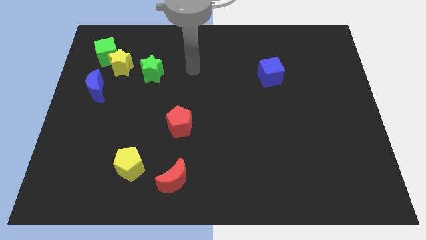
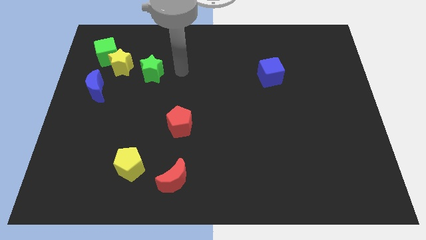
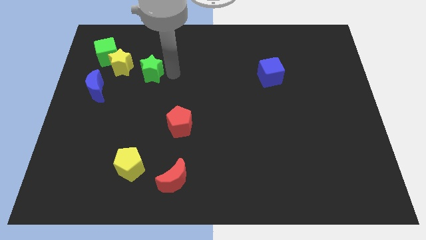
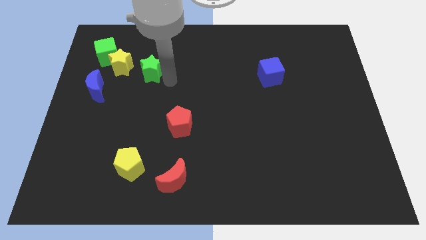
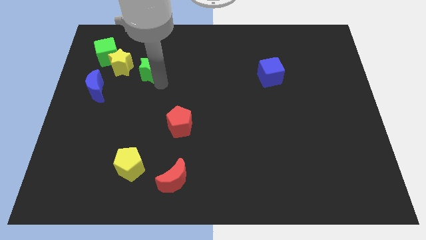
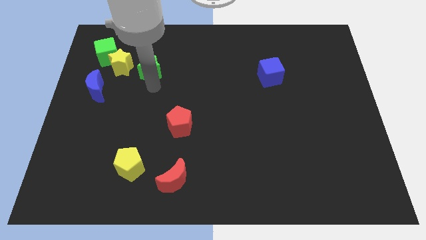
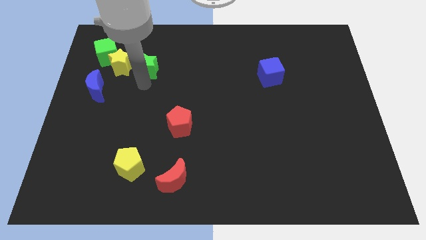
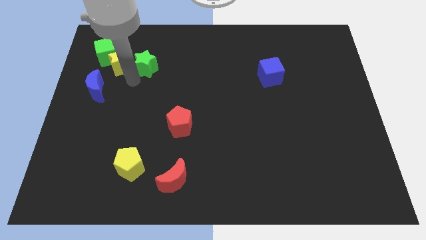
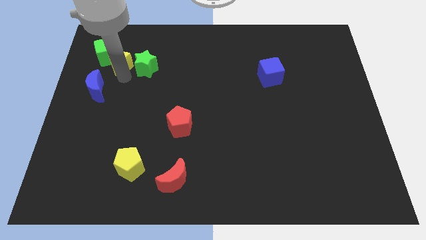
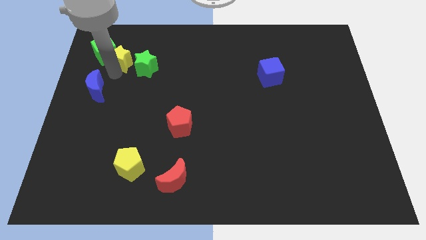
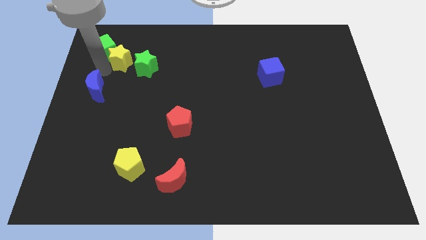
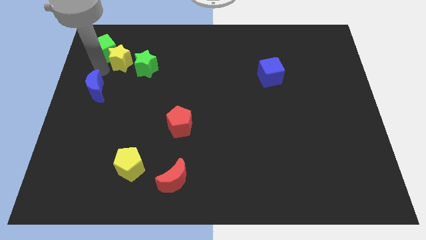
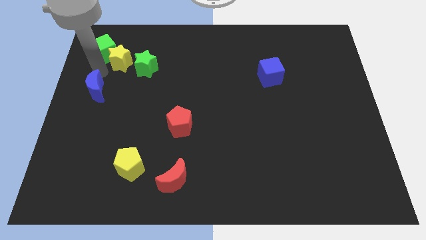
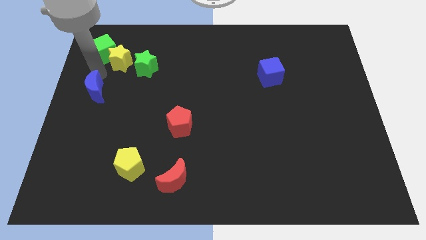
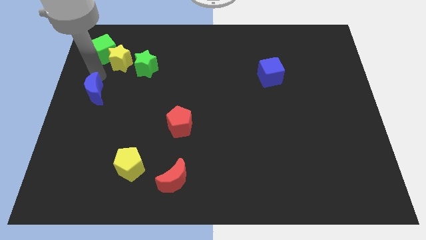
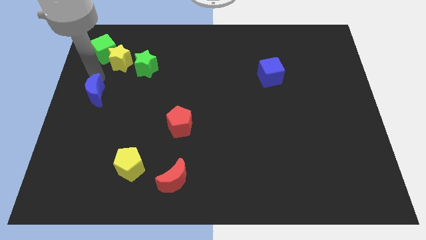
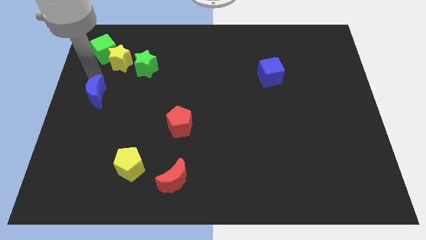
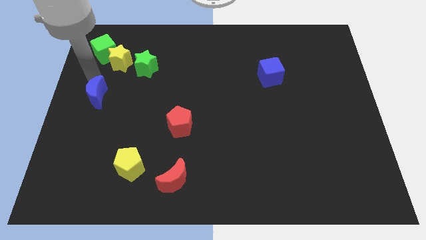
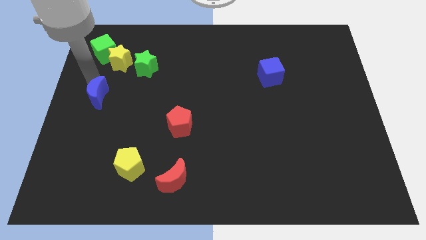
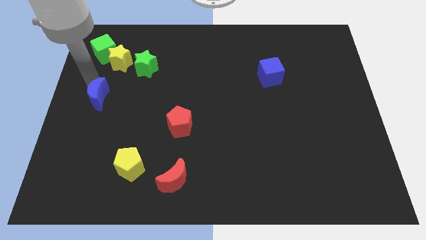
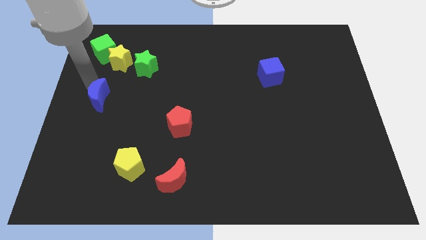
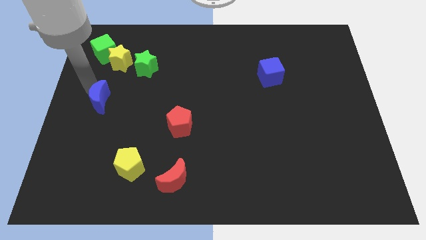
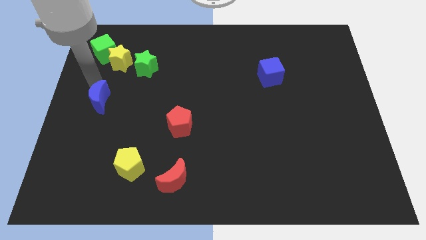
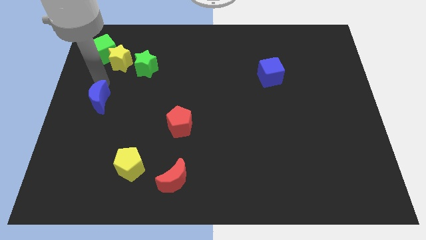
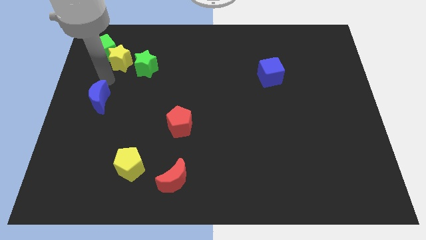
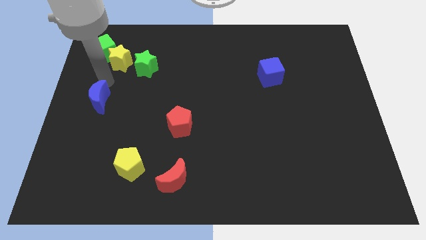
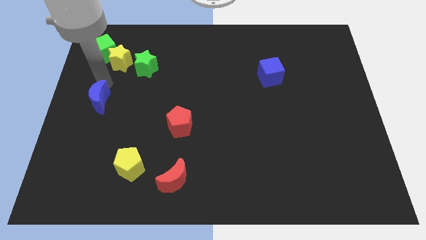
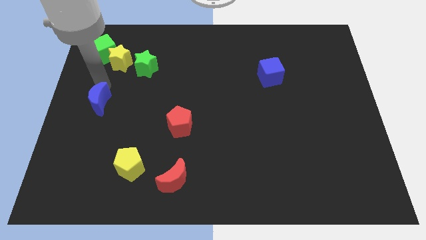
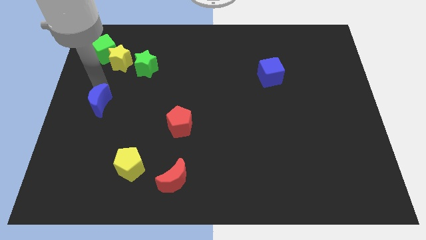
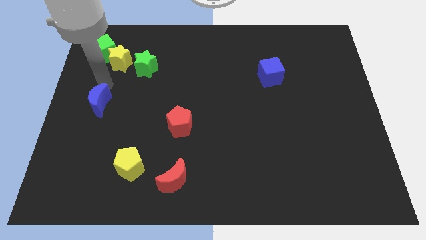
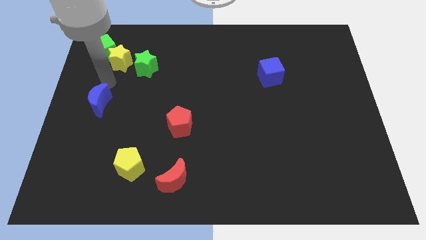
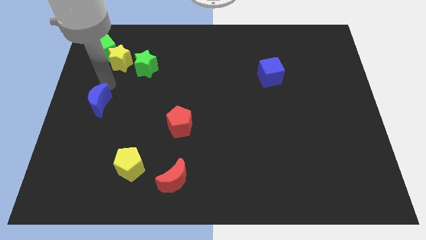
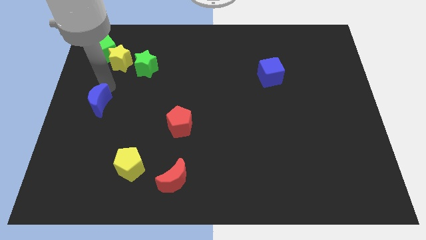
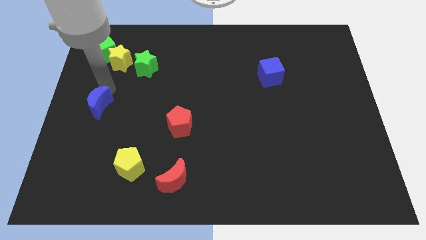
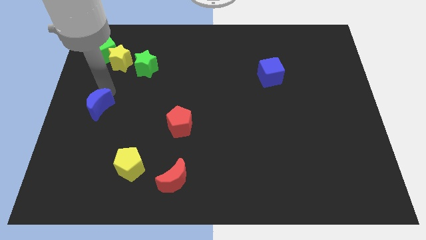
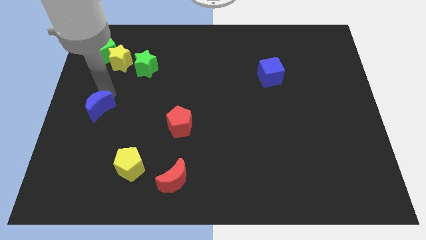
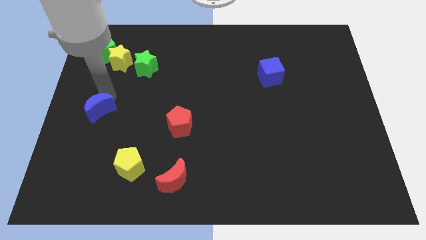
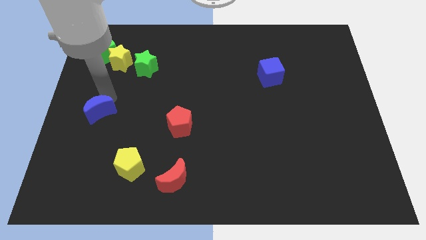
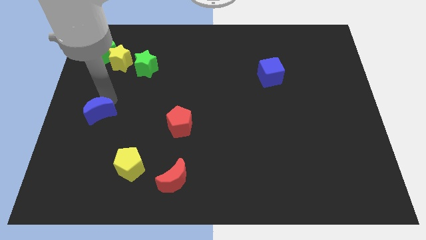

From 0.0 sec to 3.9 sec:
slightly push the blue moon down

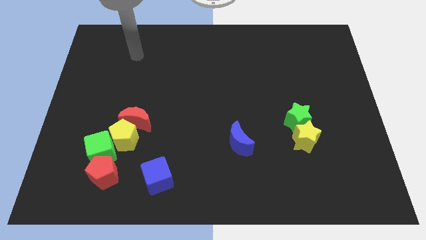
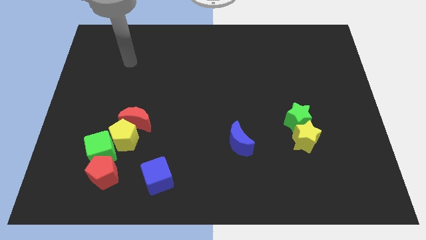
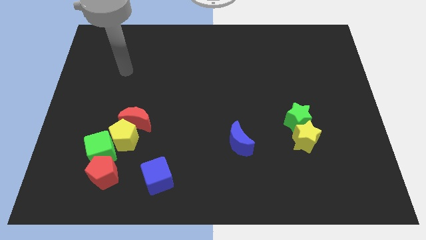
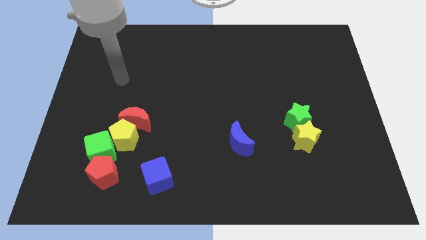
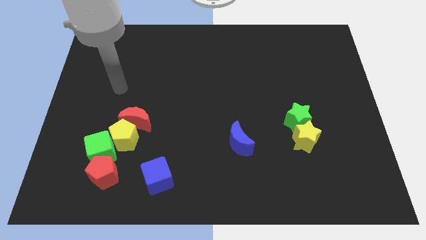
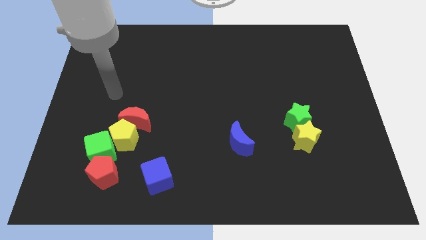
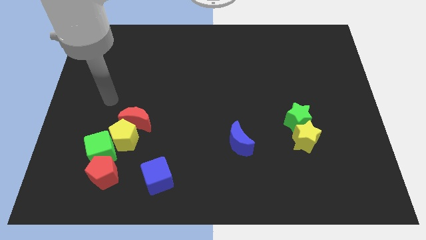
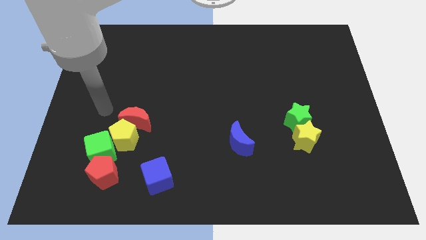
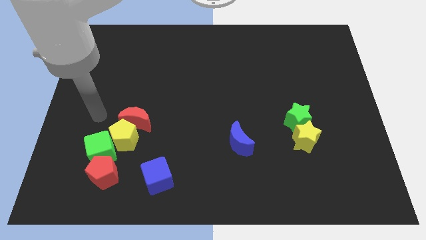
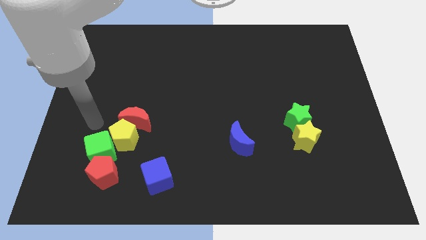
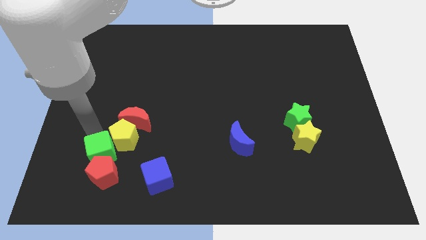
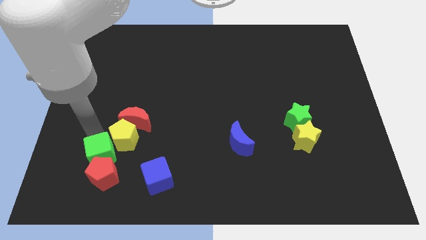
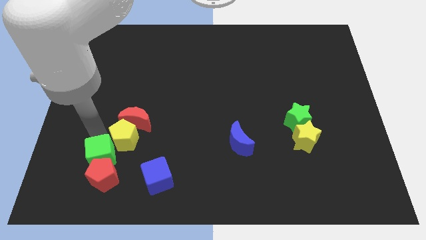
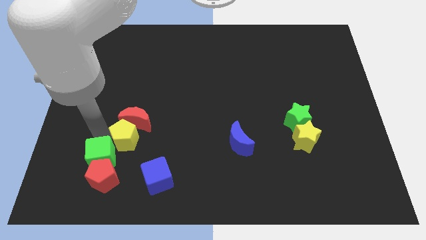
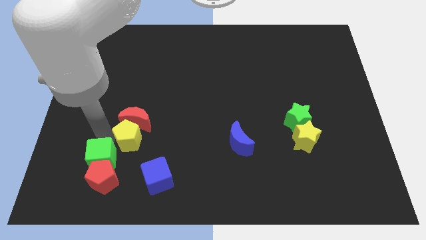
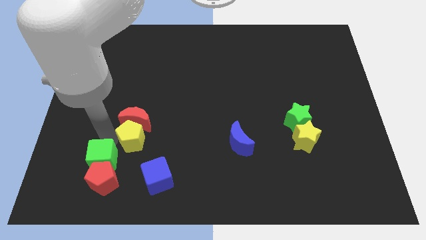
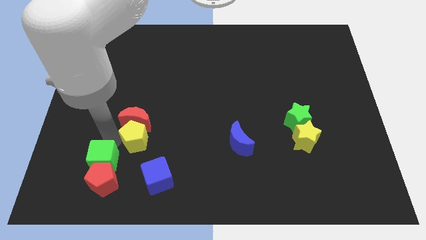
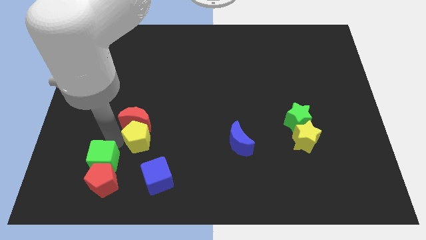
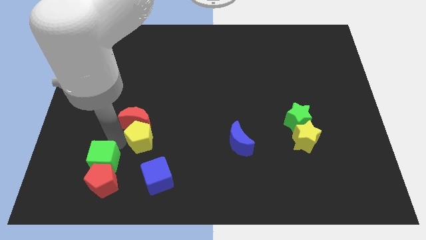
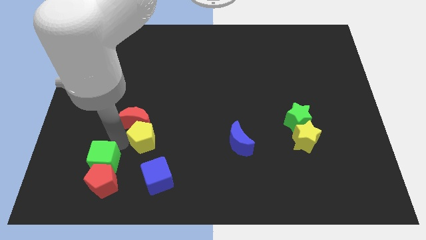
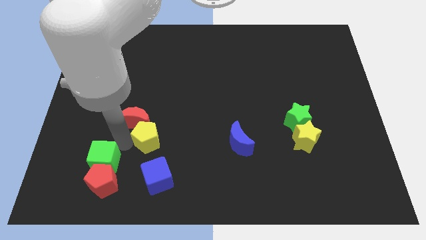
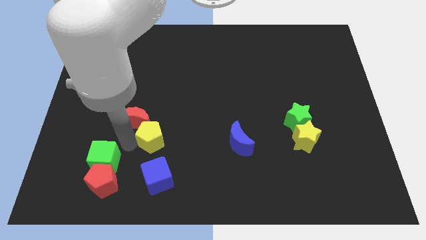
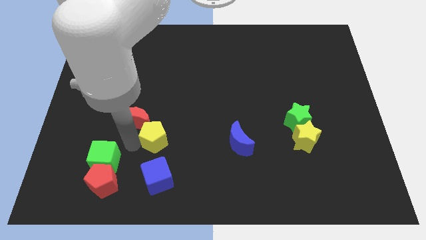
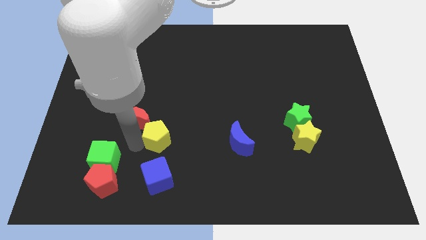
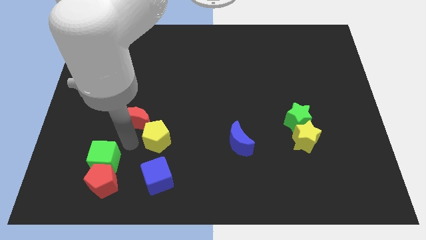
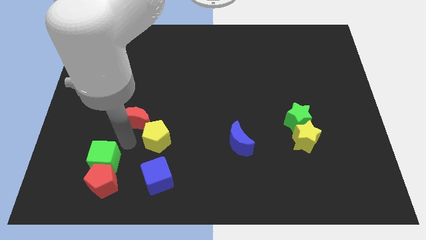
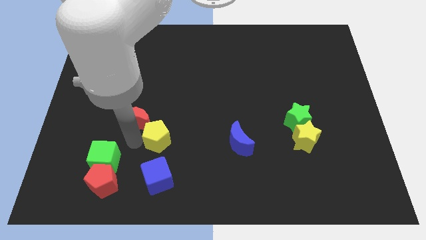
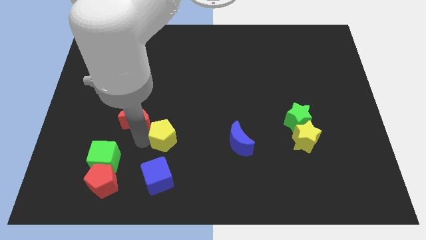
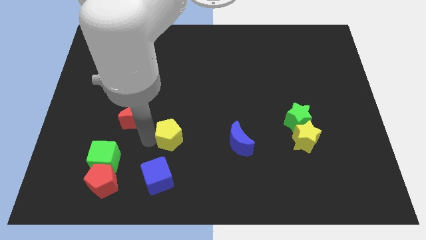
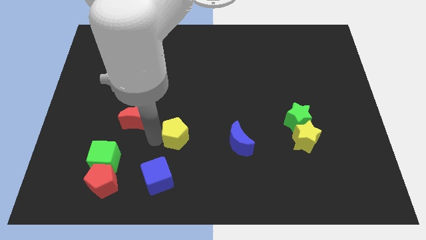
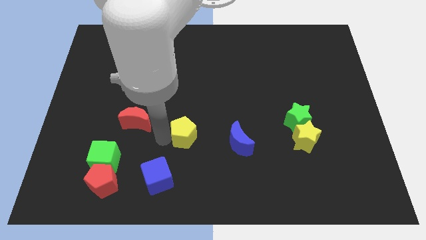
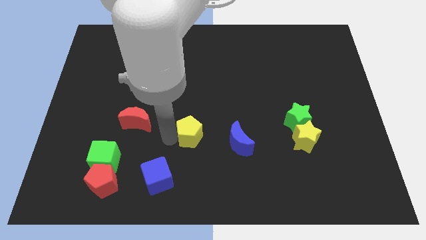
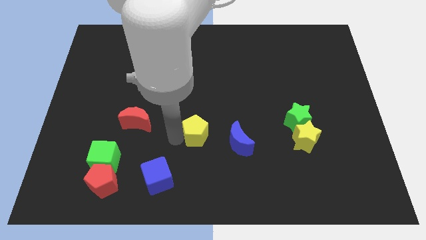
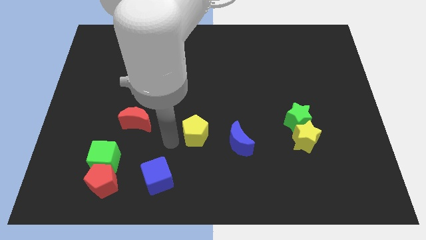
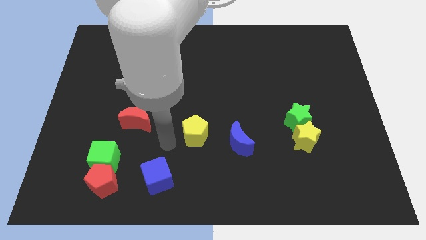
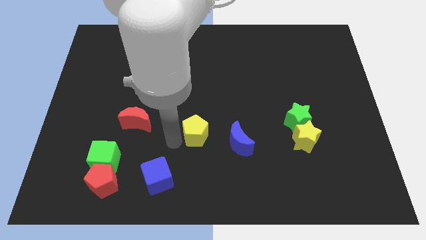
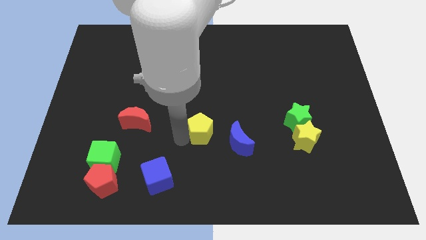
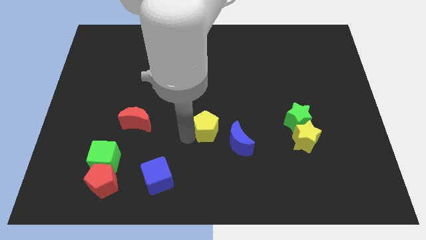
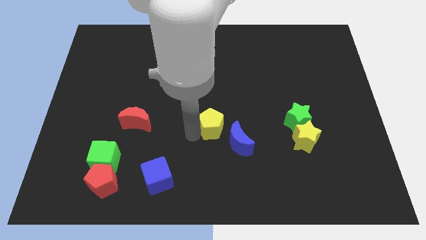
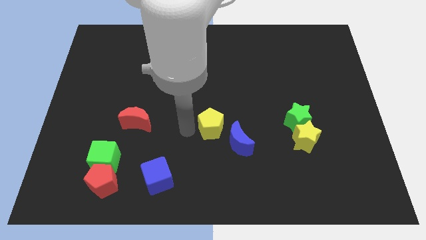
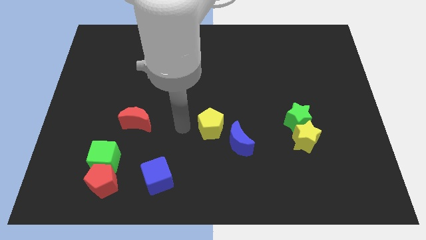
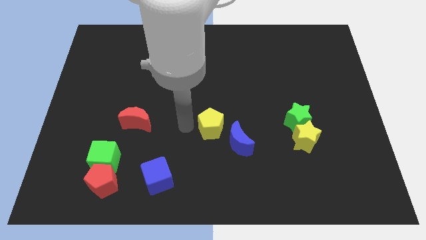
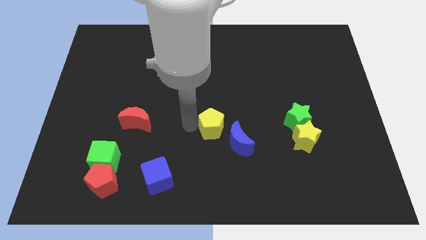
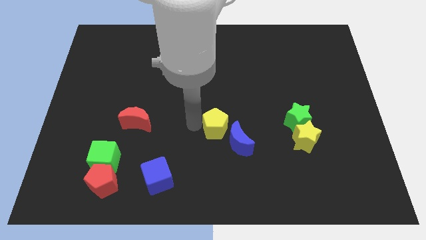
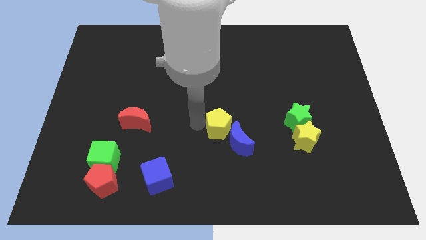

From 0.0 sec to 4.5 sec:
push the yellow pentagon to the right
